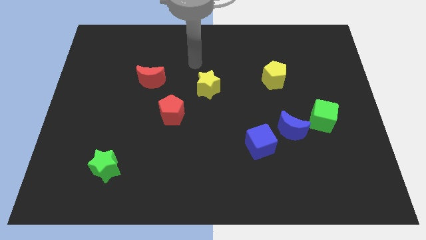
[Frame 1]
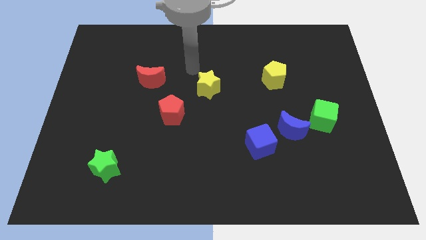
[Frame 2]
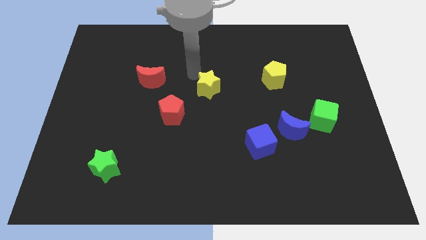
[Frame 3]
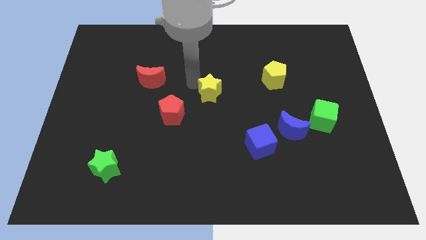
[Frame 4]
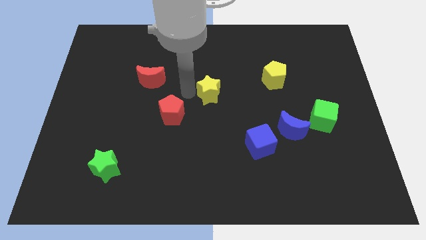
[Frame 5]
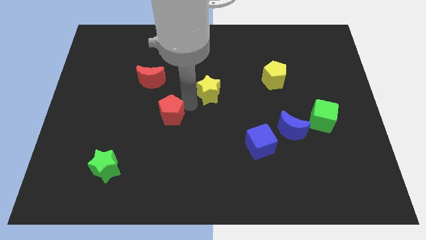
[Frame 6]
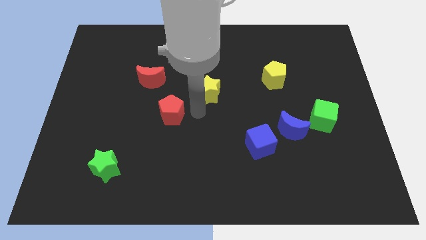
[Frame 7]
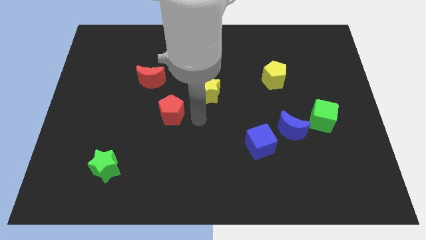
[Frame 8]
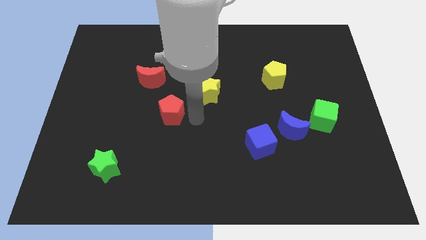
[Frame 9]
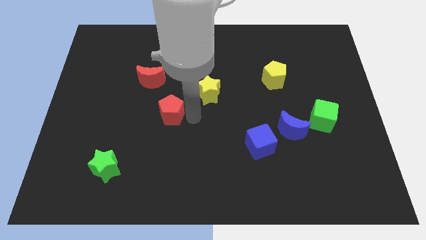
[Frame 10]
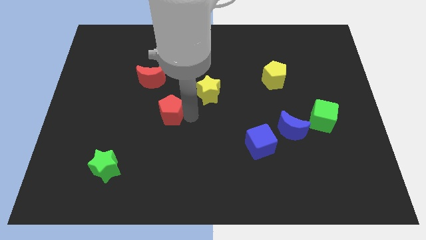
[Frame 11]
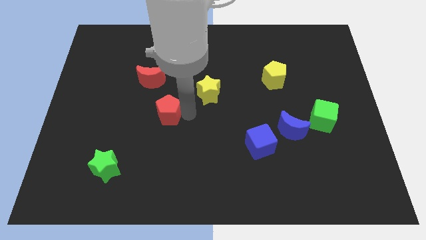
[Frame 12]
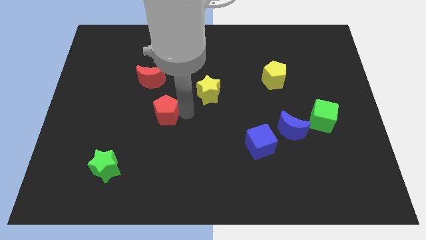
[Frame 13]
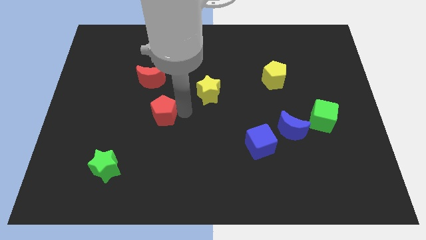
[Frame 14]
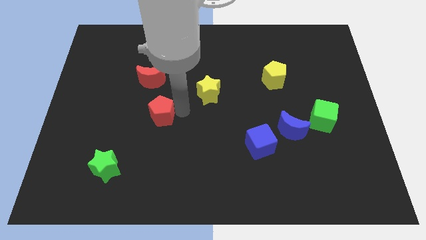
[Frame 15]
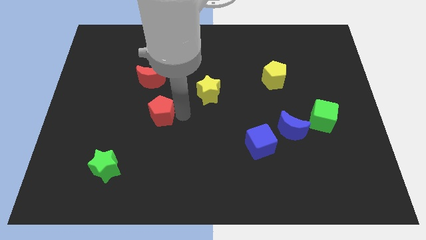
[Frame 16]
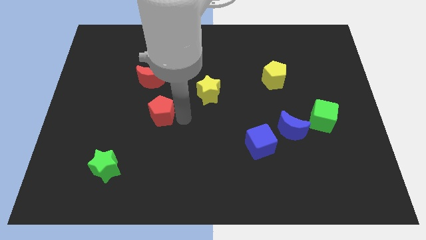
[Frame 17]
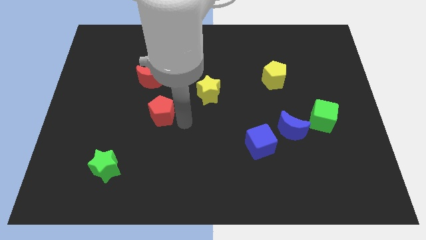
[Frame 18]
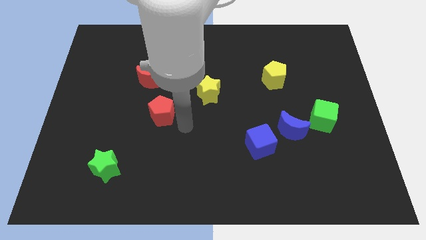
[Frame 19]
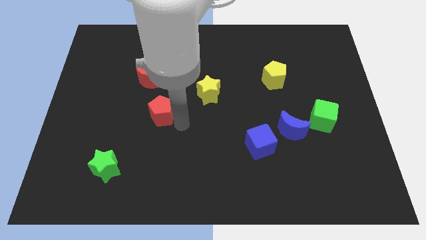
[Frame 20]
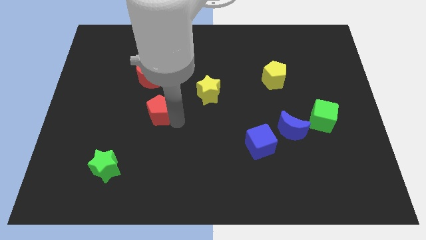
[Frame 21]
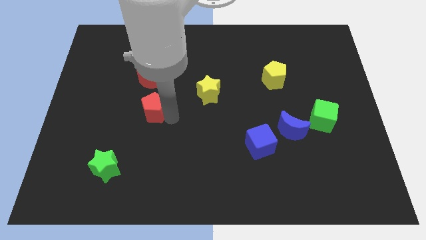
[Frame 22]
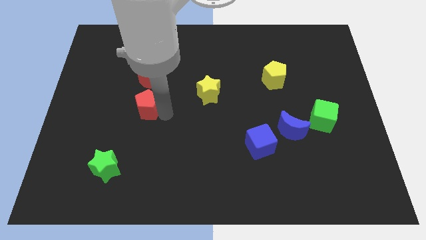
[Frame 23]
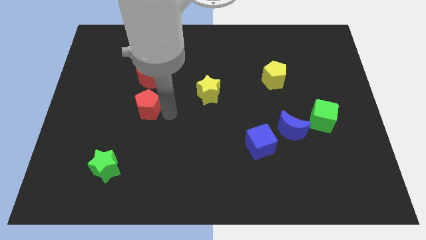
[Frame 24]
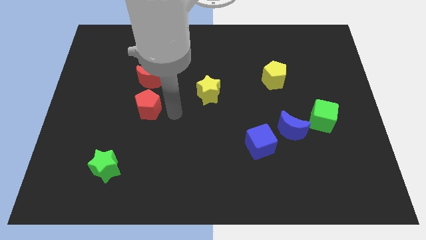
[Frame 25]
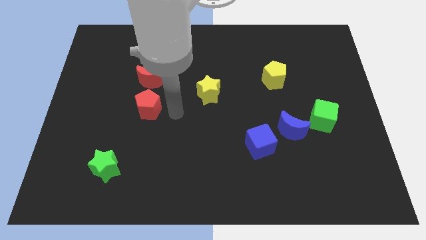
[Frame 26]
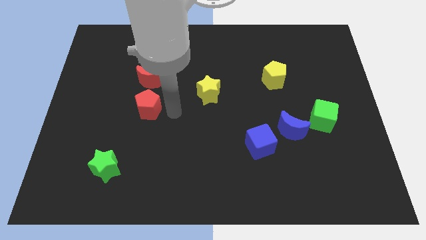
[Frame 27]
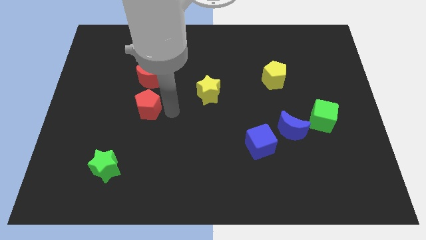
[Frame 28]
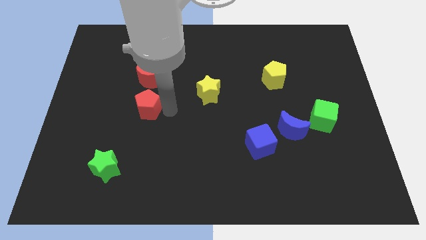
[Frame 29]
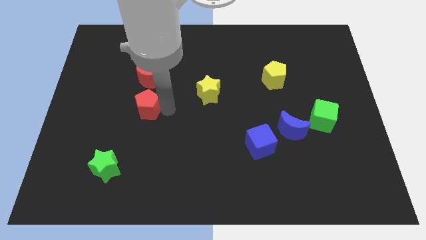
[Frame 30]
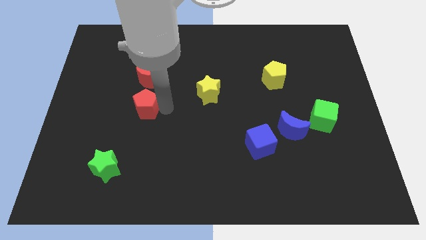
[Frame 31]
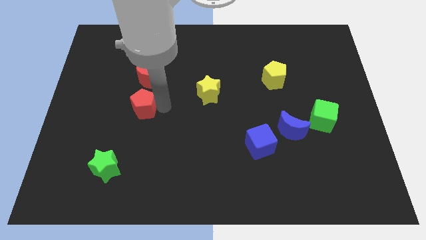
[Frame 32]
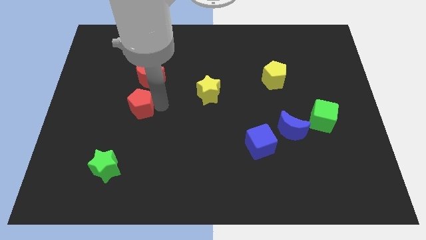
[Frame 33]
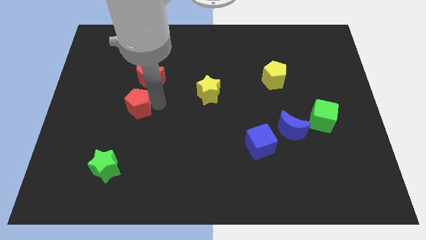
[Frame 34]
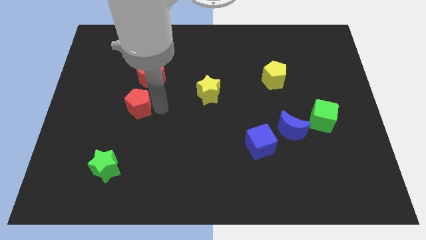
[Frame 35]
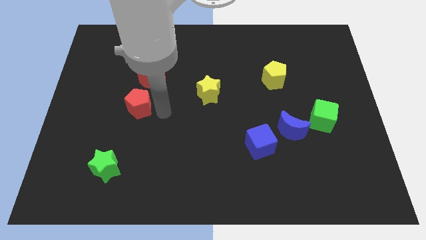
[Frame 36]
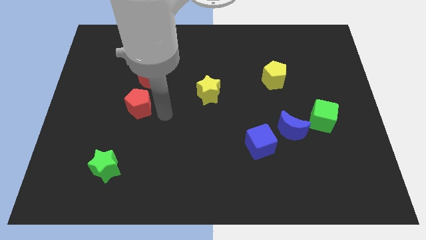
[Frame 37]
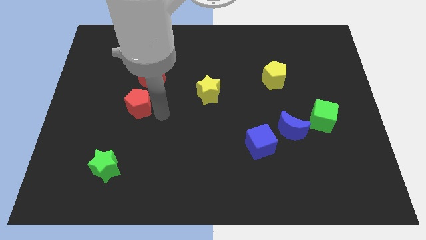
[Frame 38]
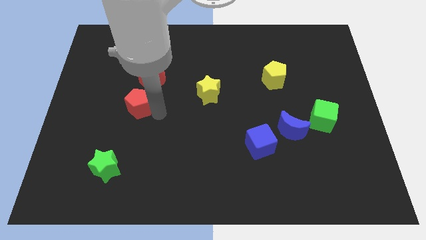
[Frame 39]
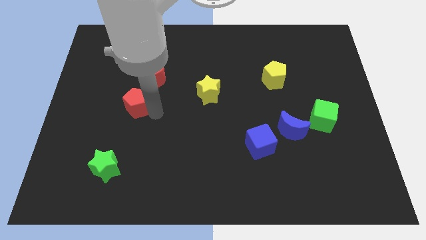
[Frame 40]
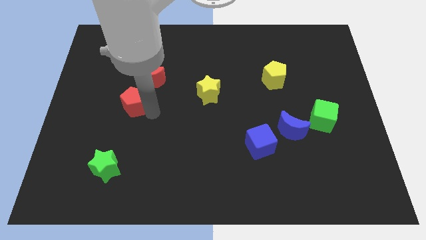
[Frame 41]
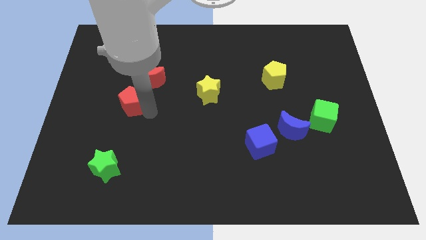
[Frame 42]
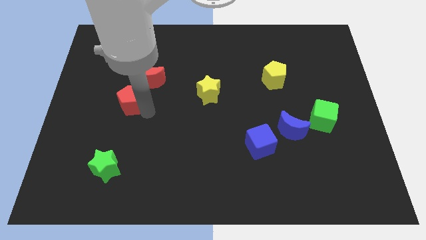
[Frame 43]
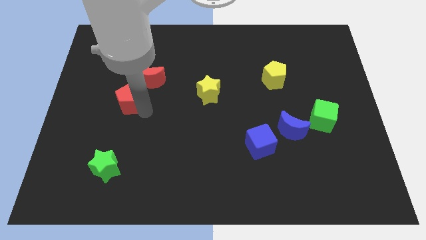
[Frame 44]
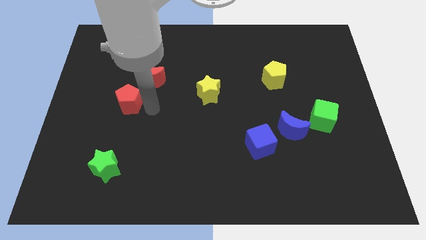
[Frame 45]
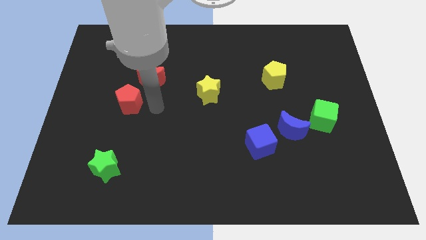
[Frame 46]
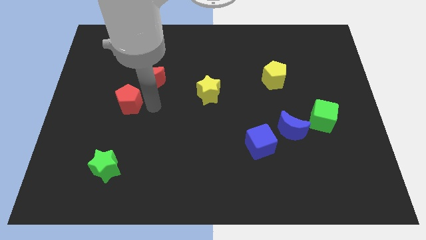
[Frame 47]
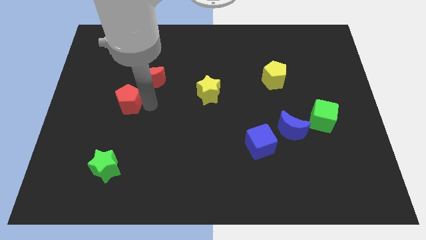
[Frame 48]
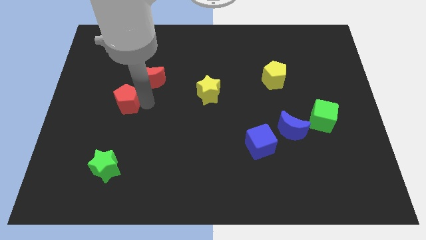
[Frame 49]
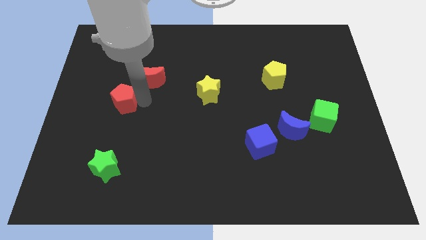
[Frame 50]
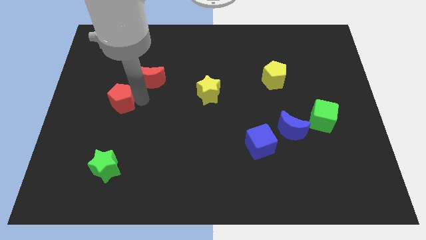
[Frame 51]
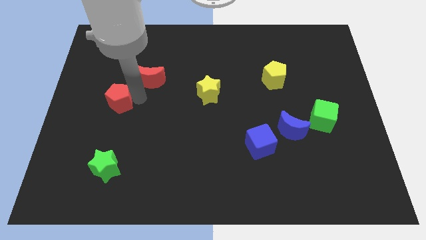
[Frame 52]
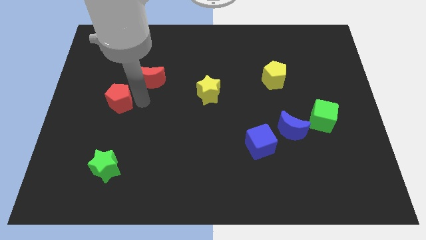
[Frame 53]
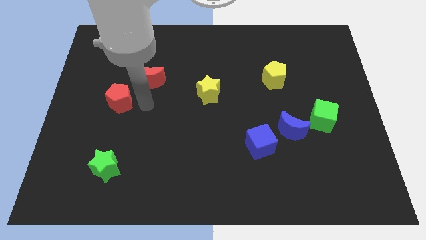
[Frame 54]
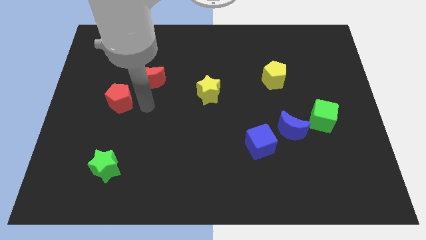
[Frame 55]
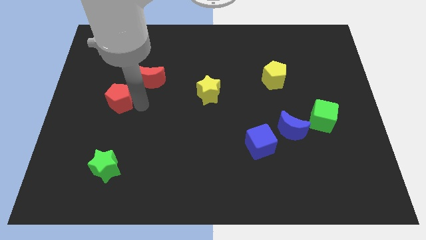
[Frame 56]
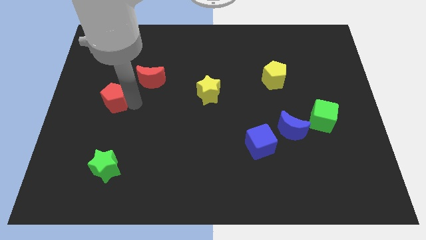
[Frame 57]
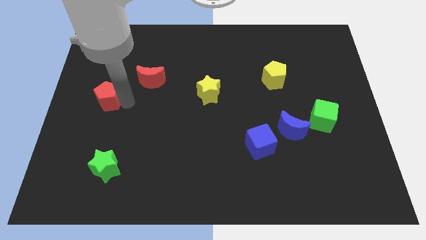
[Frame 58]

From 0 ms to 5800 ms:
push the red pentagon to the center left

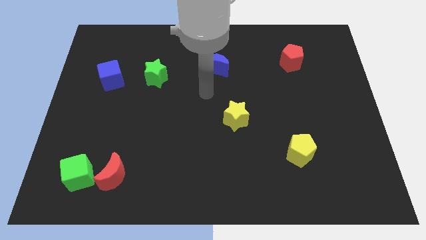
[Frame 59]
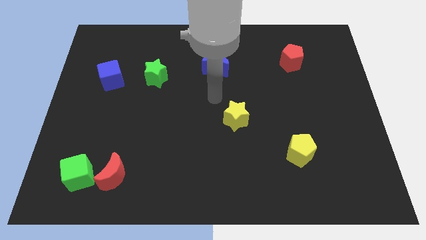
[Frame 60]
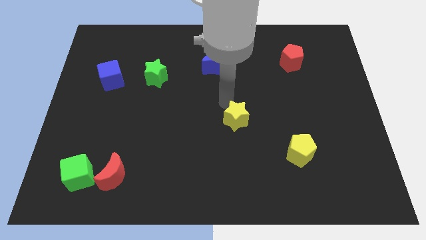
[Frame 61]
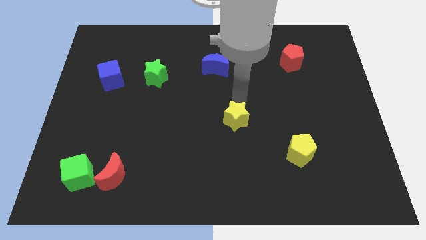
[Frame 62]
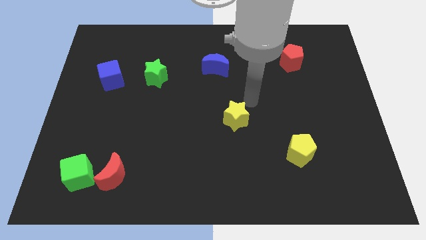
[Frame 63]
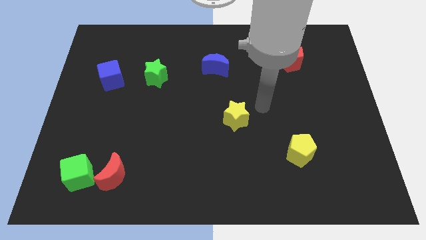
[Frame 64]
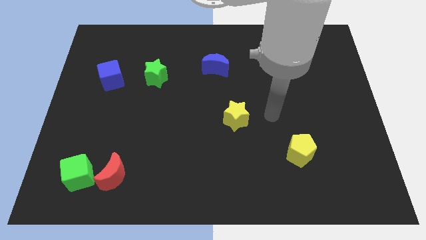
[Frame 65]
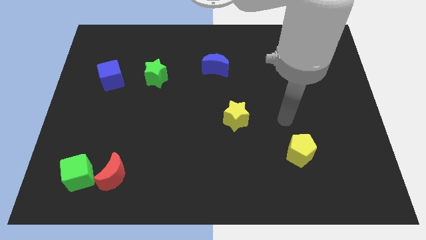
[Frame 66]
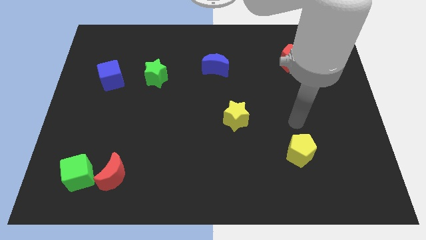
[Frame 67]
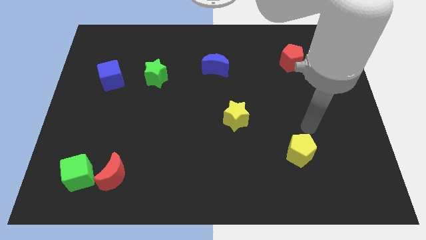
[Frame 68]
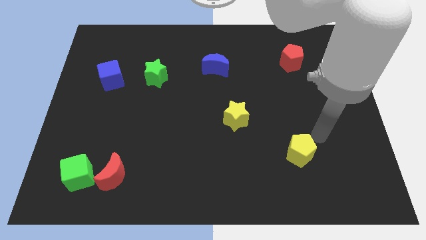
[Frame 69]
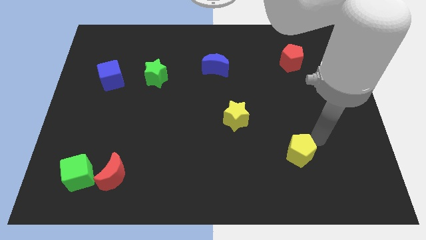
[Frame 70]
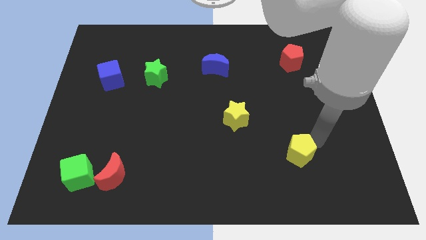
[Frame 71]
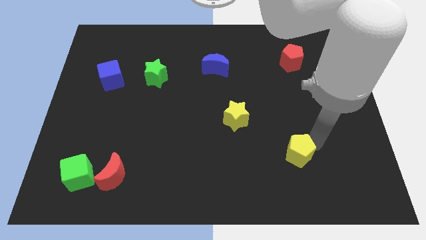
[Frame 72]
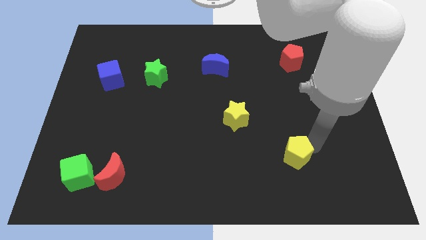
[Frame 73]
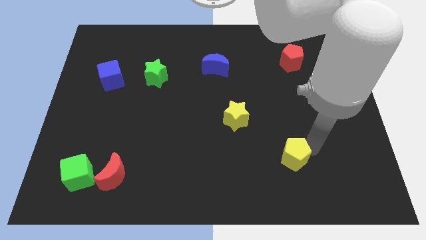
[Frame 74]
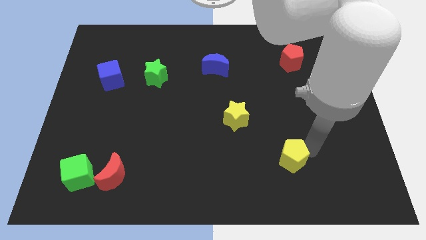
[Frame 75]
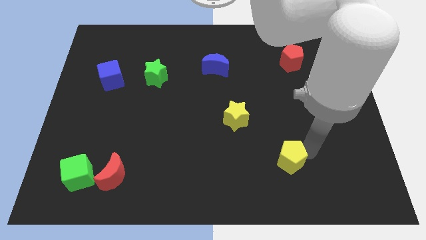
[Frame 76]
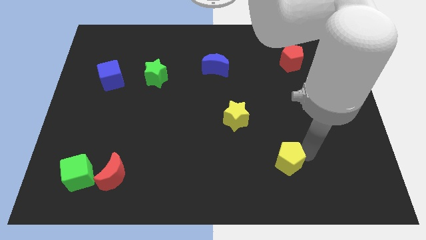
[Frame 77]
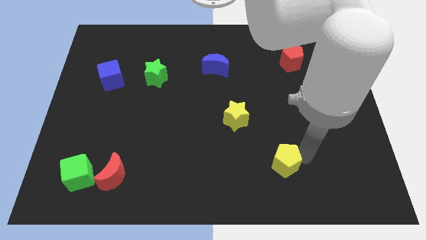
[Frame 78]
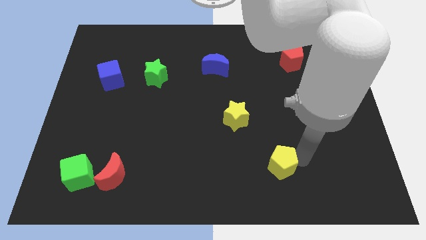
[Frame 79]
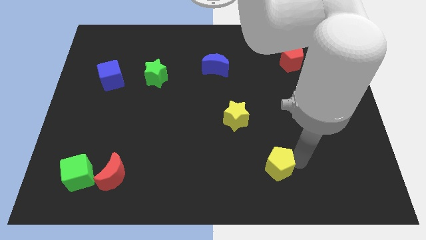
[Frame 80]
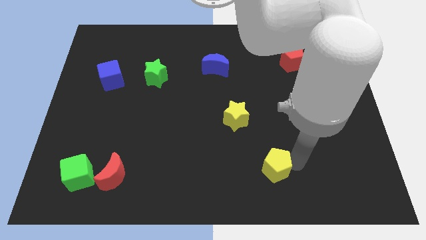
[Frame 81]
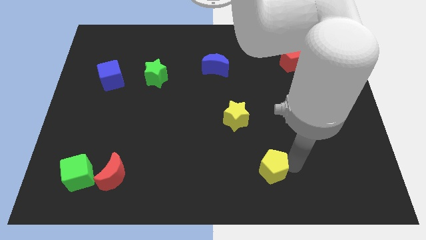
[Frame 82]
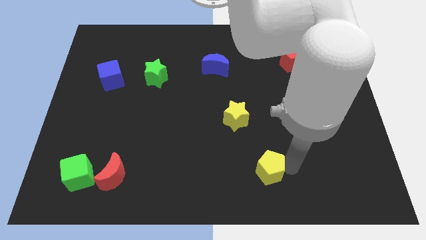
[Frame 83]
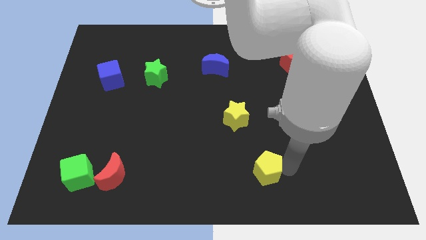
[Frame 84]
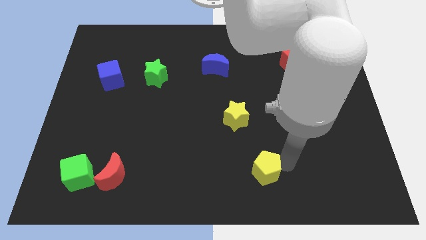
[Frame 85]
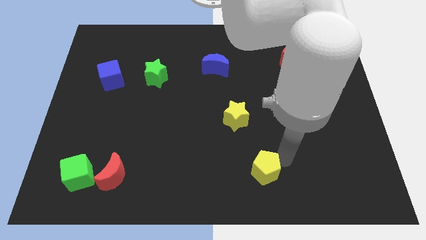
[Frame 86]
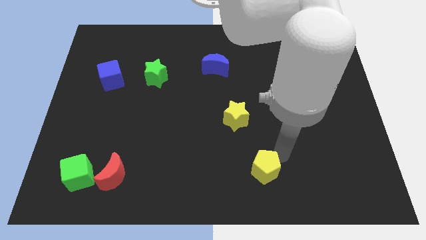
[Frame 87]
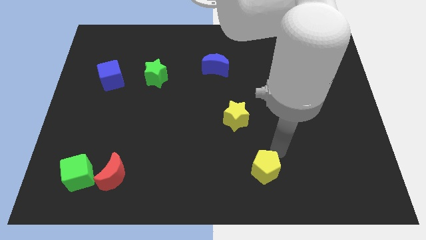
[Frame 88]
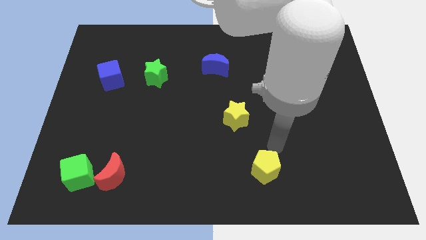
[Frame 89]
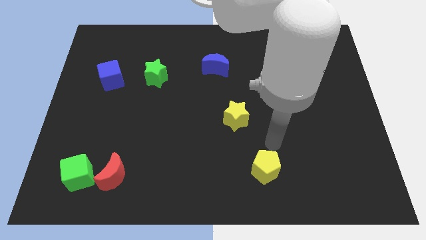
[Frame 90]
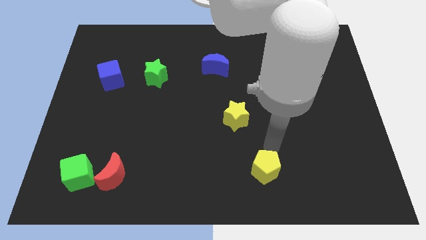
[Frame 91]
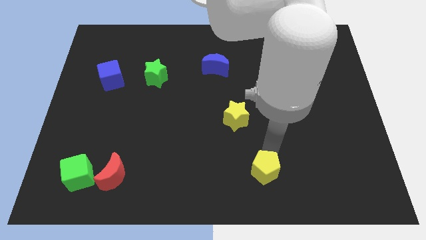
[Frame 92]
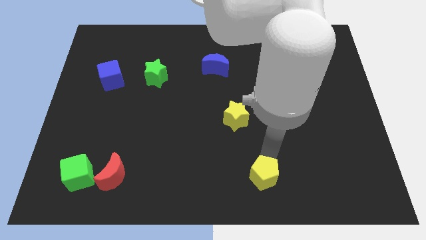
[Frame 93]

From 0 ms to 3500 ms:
move the yellow pentagon to the bottom side
